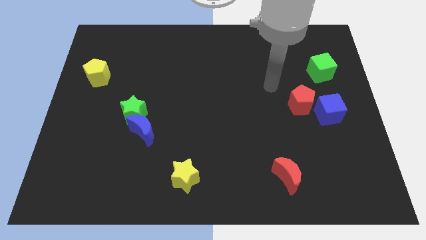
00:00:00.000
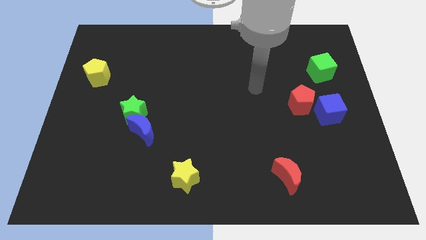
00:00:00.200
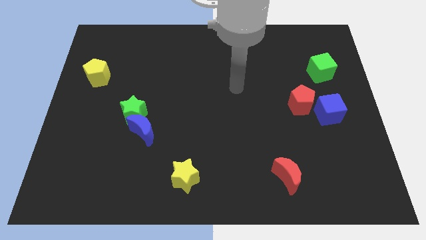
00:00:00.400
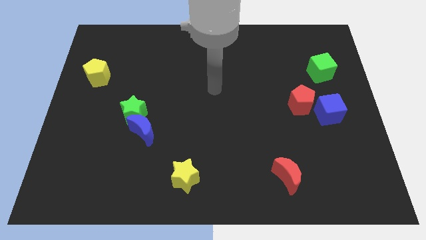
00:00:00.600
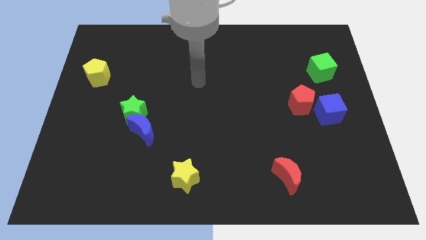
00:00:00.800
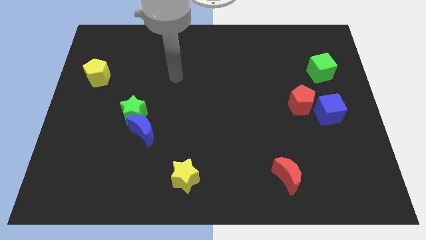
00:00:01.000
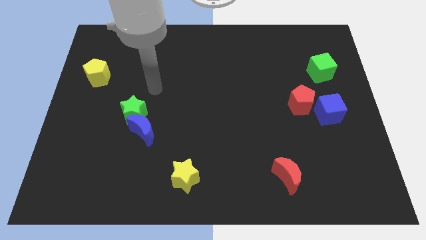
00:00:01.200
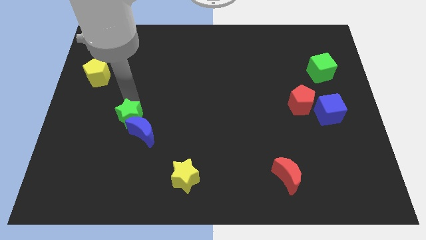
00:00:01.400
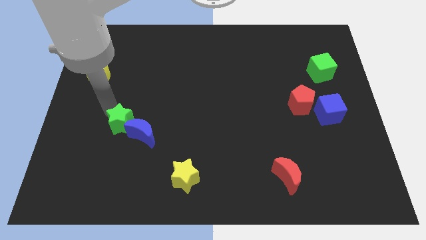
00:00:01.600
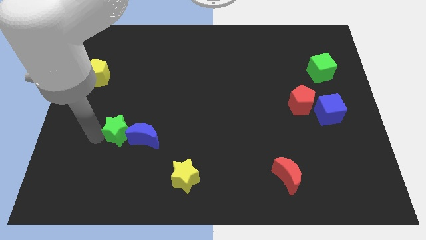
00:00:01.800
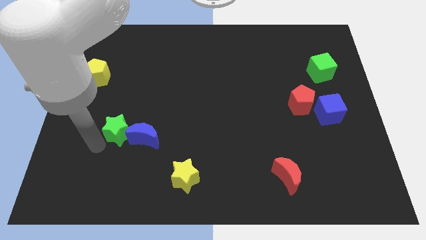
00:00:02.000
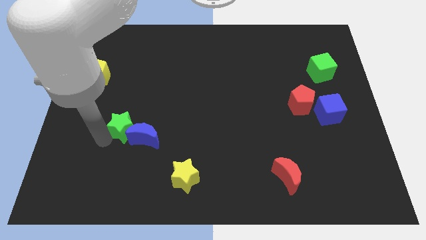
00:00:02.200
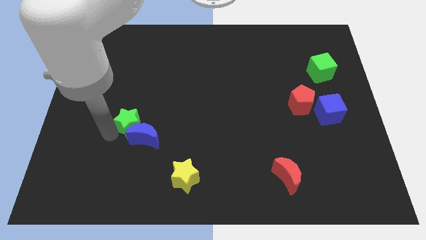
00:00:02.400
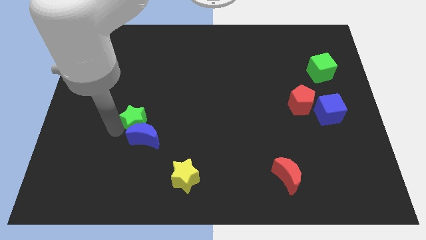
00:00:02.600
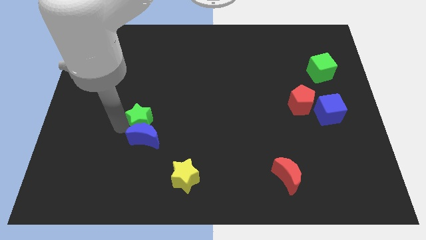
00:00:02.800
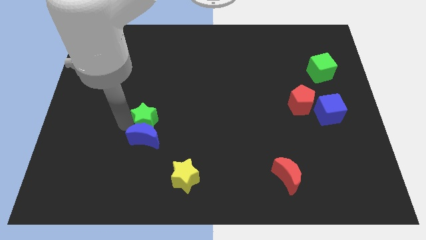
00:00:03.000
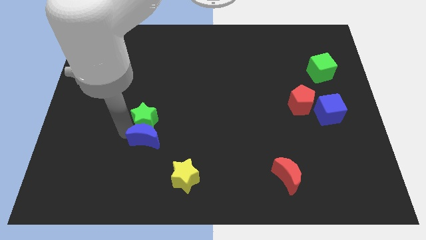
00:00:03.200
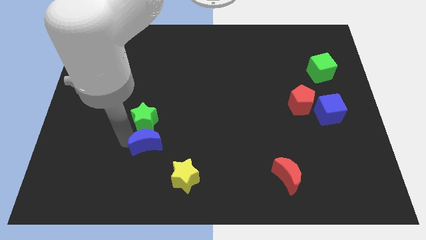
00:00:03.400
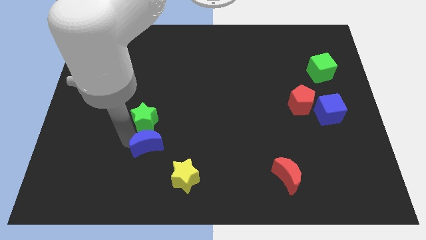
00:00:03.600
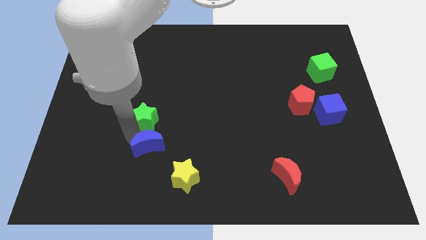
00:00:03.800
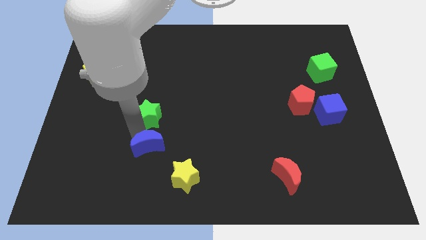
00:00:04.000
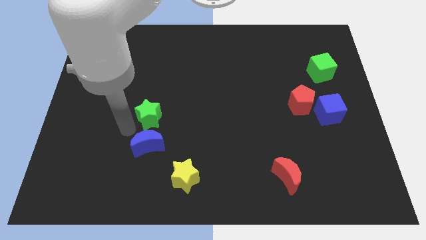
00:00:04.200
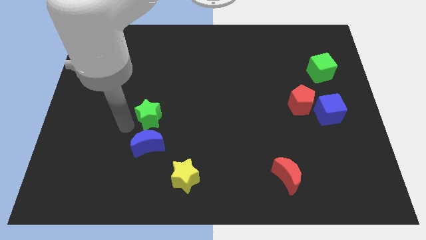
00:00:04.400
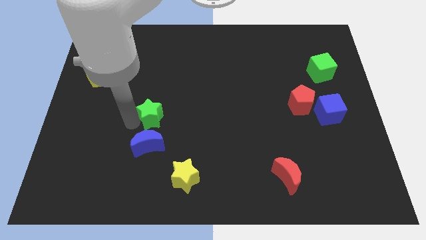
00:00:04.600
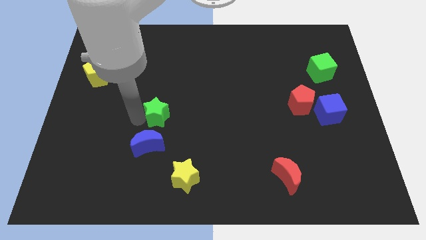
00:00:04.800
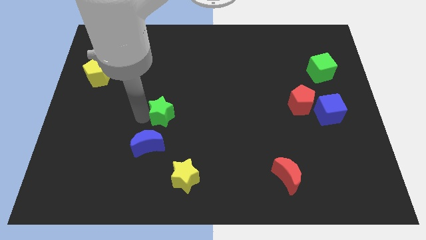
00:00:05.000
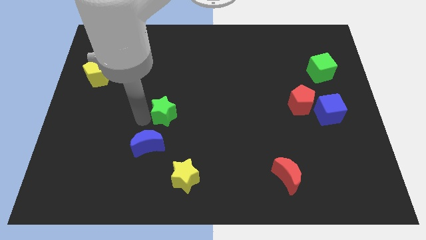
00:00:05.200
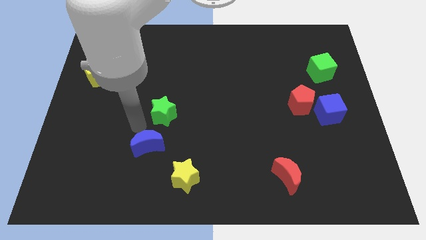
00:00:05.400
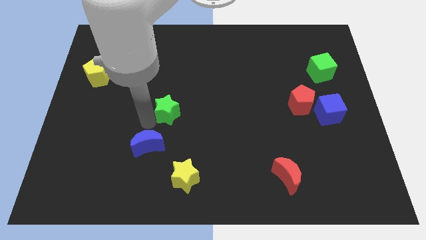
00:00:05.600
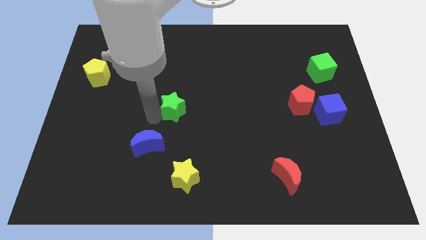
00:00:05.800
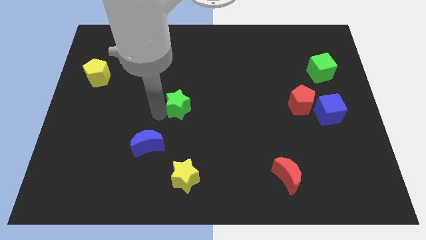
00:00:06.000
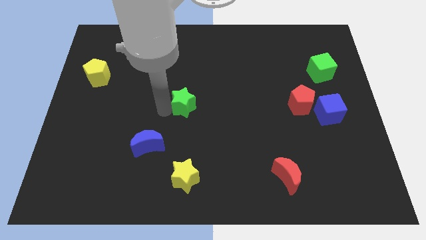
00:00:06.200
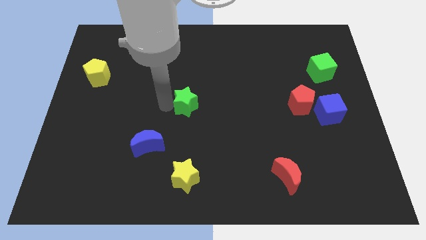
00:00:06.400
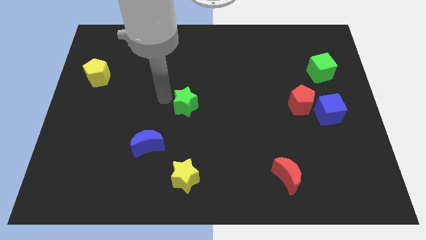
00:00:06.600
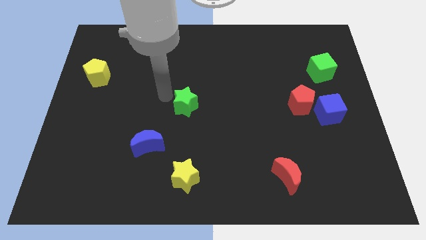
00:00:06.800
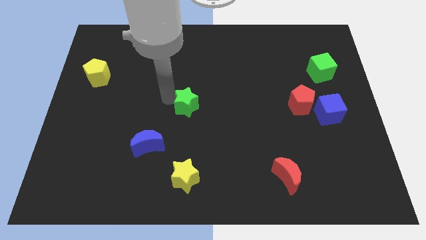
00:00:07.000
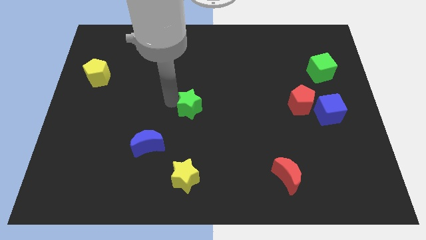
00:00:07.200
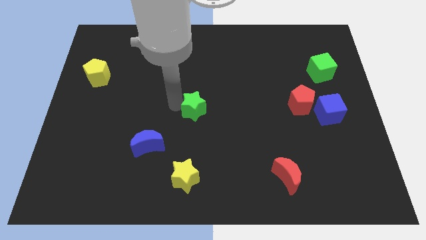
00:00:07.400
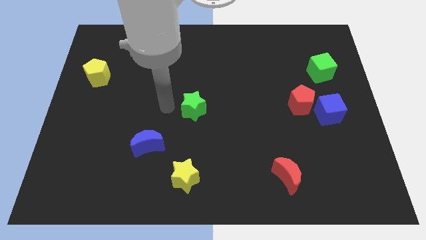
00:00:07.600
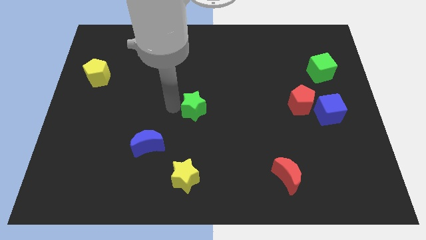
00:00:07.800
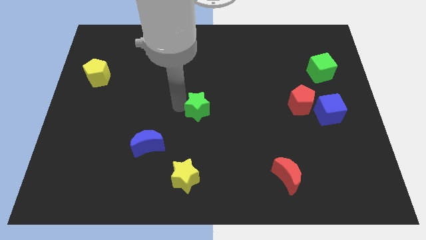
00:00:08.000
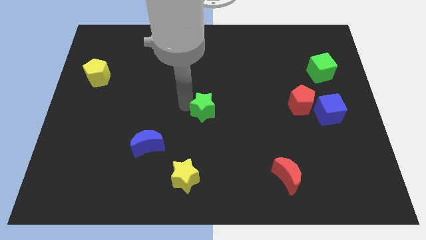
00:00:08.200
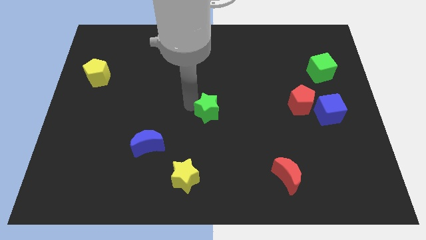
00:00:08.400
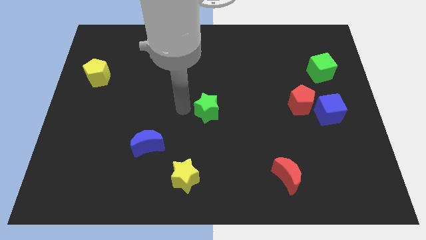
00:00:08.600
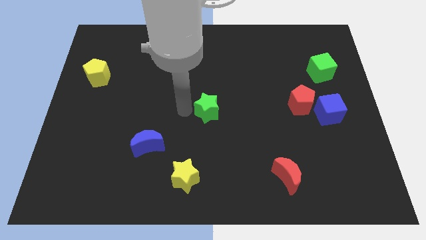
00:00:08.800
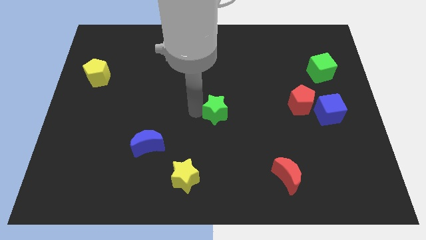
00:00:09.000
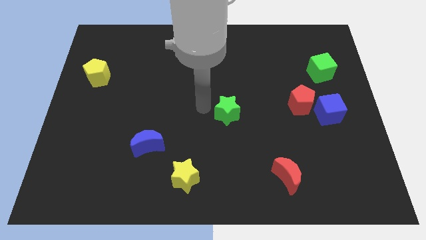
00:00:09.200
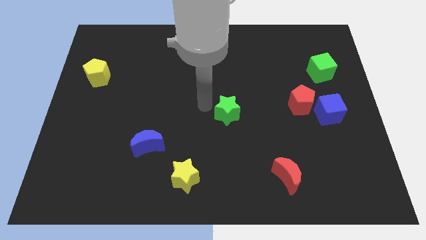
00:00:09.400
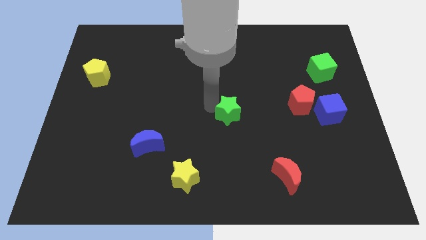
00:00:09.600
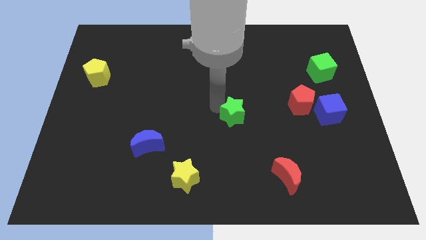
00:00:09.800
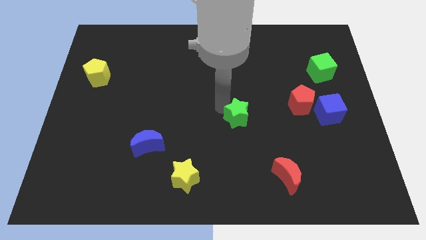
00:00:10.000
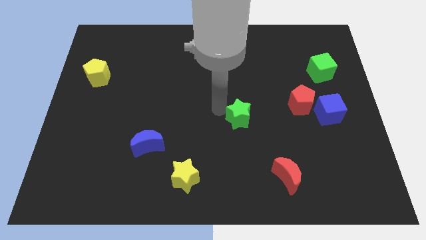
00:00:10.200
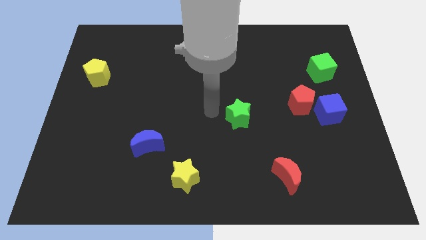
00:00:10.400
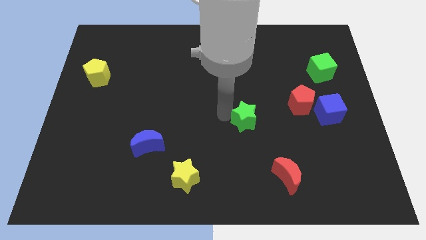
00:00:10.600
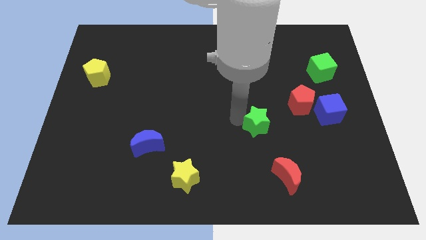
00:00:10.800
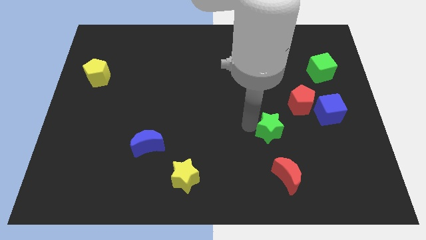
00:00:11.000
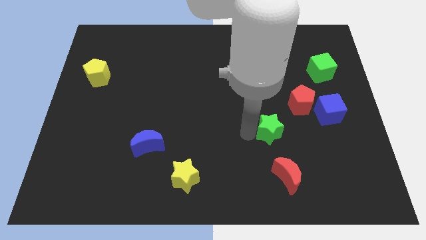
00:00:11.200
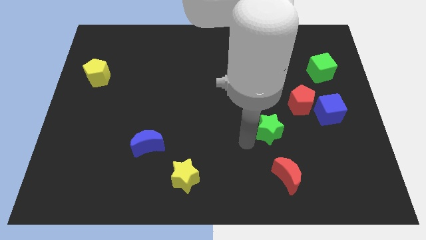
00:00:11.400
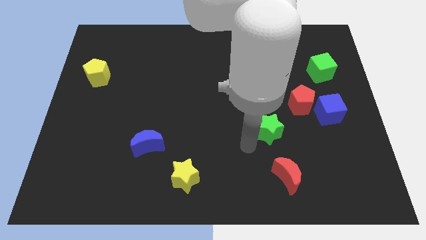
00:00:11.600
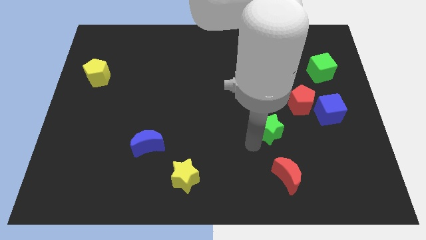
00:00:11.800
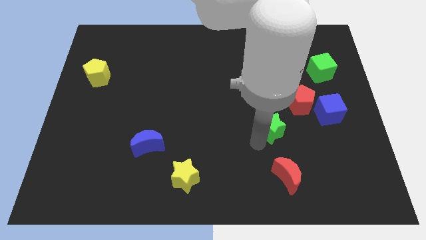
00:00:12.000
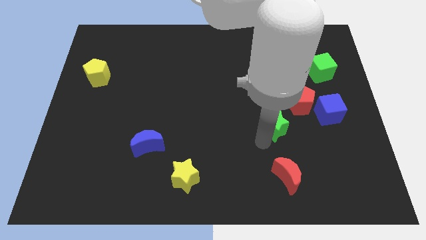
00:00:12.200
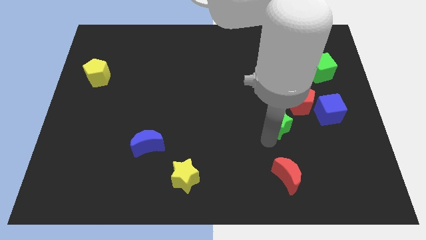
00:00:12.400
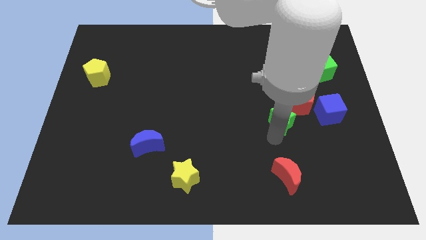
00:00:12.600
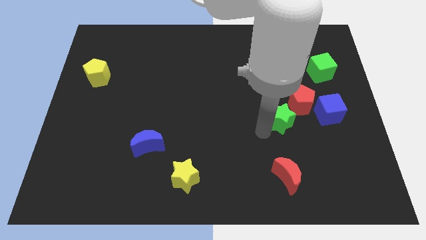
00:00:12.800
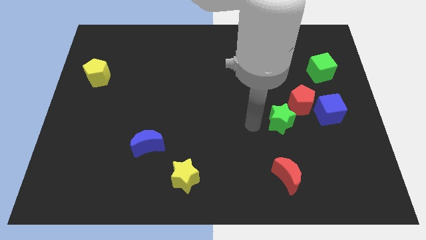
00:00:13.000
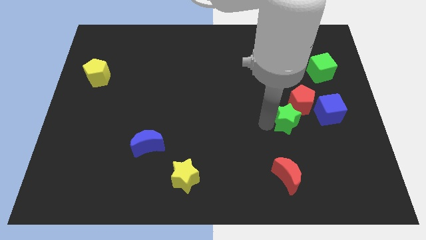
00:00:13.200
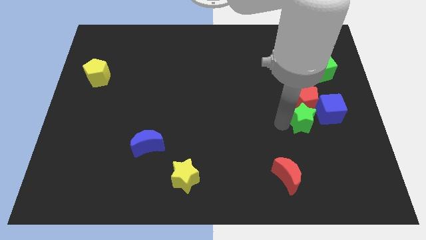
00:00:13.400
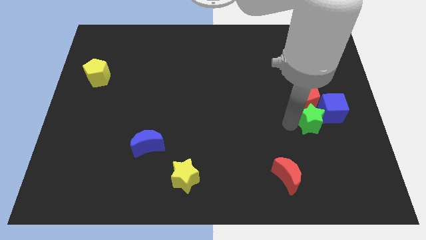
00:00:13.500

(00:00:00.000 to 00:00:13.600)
slide the green star to the blue cube
